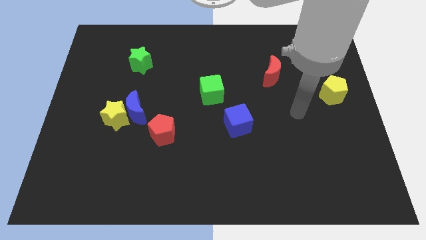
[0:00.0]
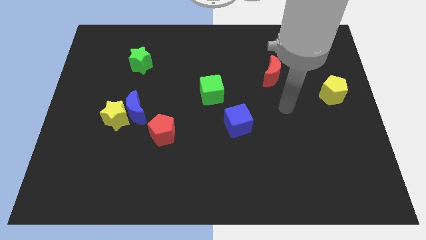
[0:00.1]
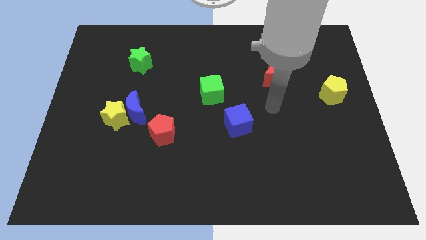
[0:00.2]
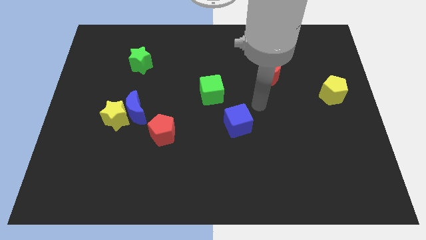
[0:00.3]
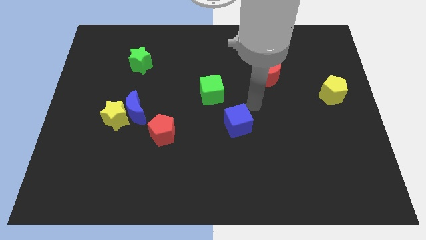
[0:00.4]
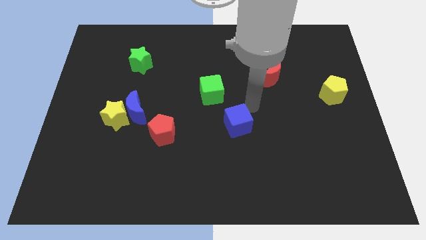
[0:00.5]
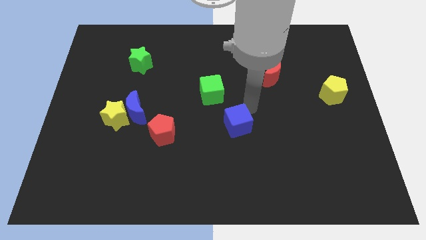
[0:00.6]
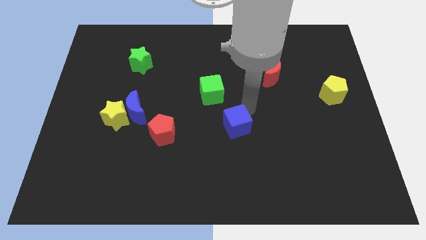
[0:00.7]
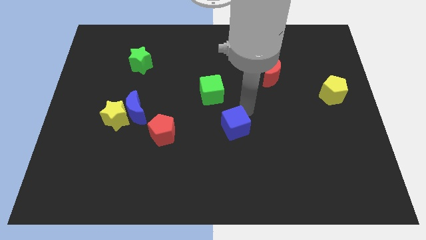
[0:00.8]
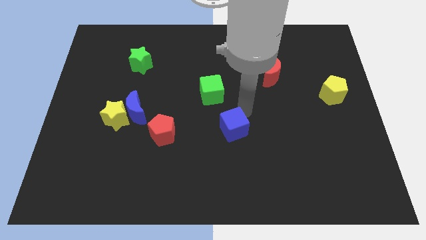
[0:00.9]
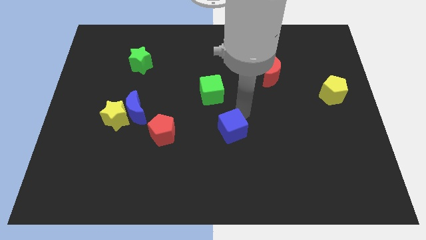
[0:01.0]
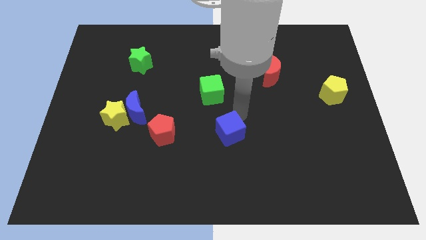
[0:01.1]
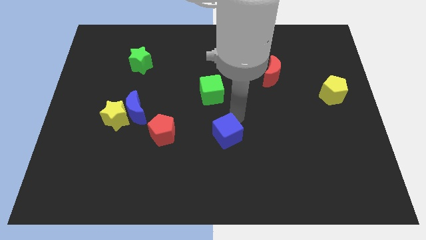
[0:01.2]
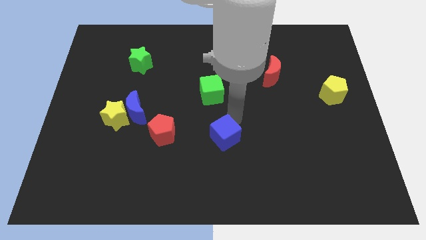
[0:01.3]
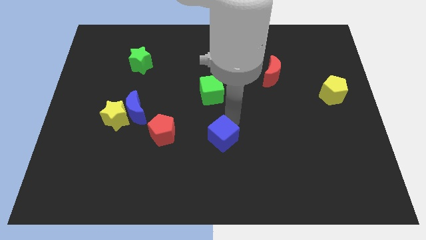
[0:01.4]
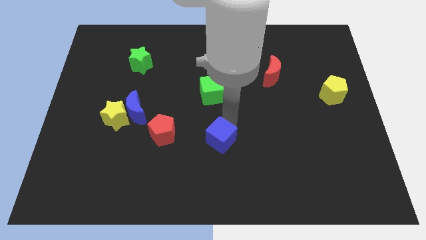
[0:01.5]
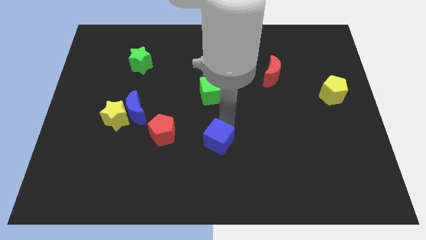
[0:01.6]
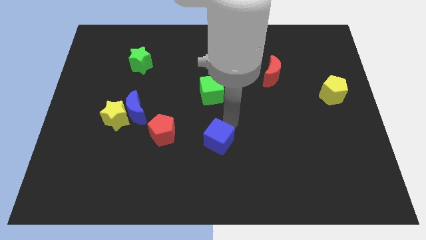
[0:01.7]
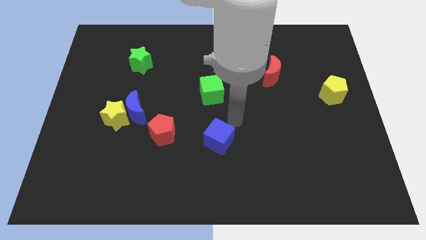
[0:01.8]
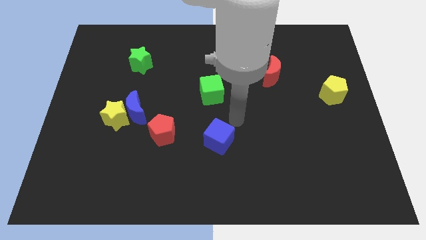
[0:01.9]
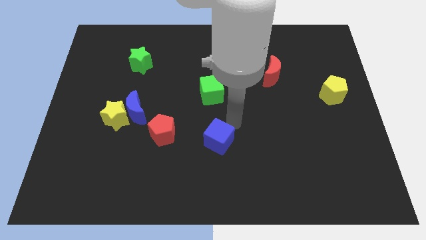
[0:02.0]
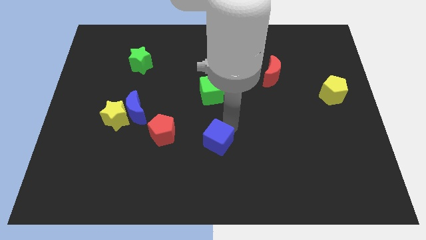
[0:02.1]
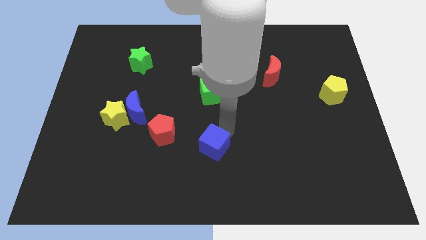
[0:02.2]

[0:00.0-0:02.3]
slightly push the blue cube diagonally down and to the left

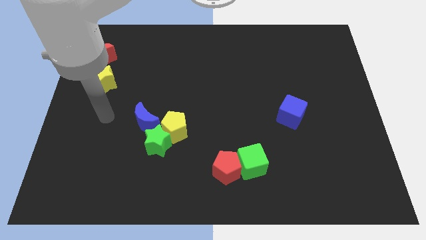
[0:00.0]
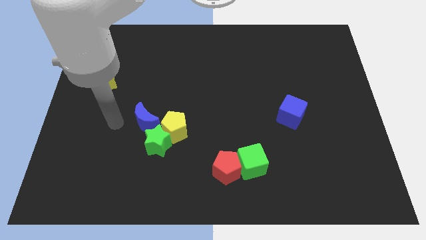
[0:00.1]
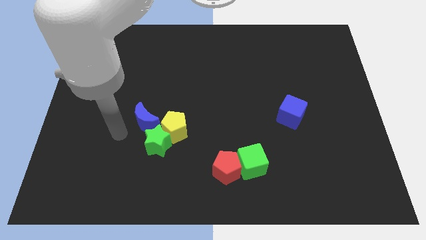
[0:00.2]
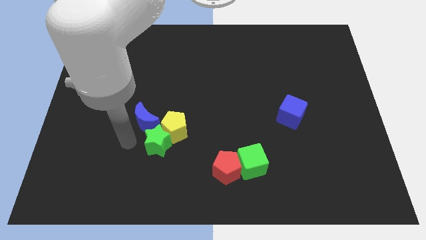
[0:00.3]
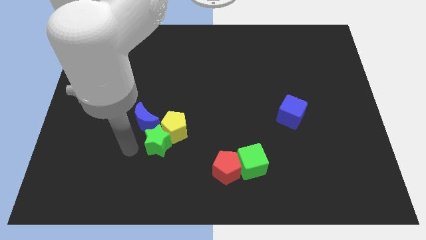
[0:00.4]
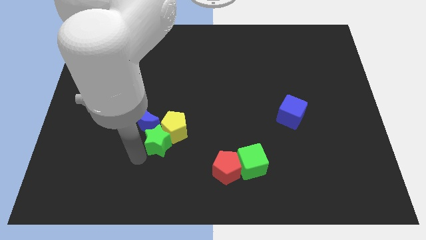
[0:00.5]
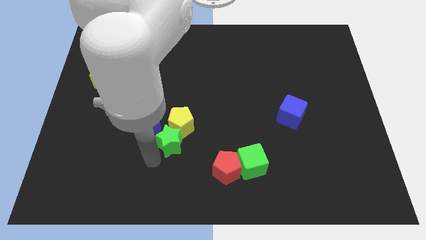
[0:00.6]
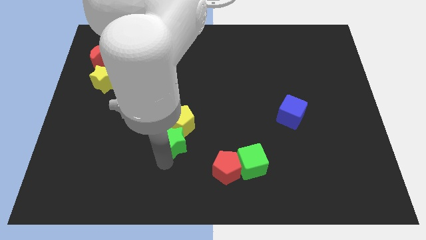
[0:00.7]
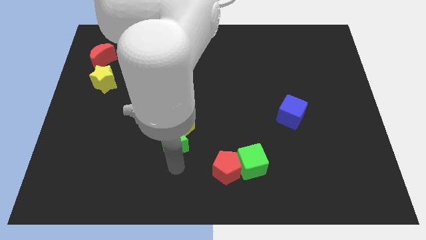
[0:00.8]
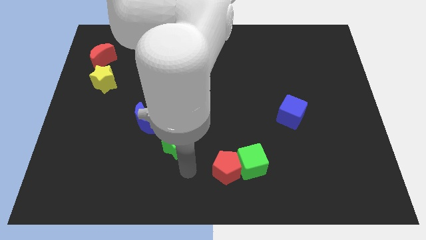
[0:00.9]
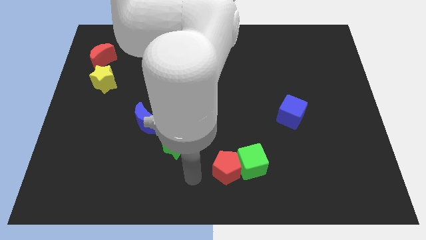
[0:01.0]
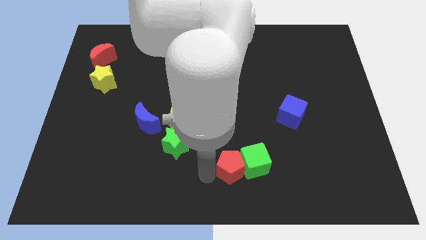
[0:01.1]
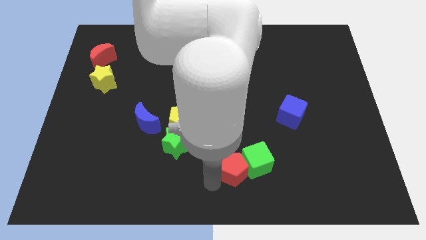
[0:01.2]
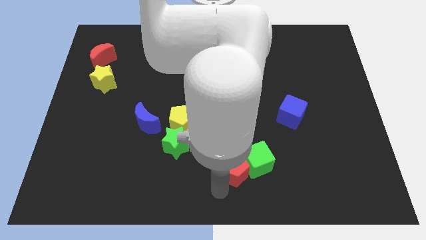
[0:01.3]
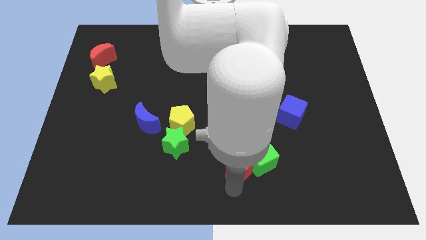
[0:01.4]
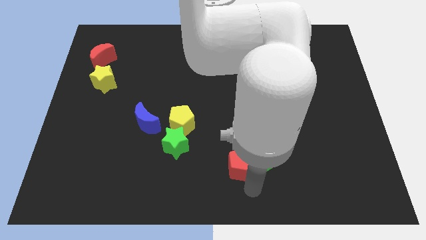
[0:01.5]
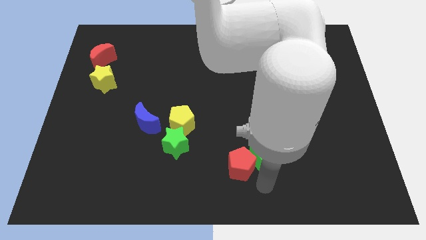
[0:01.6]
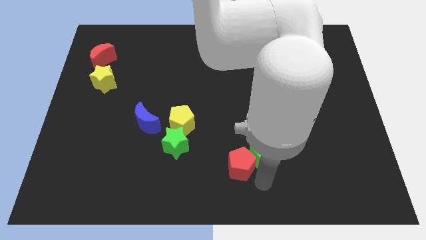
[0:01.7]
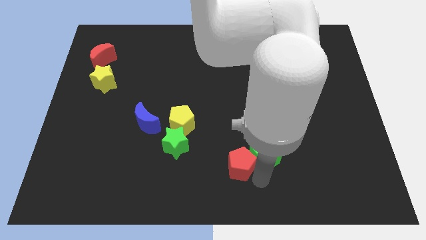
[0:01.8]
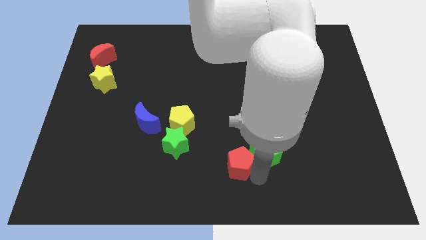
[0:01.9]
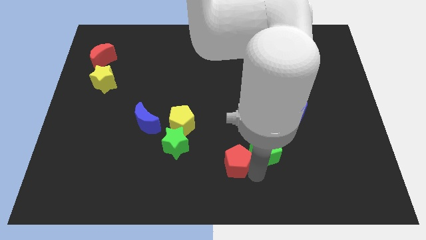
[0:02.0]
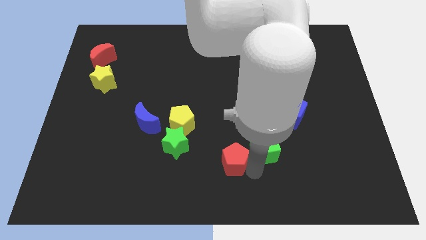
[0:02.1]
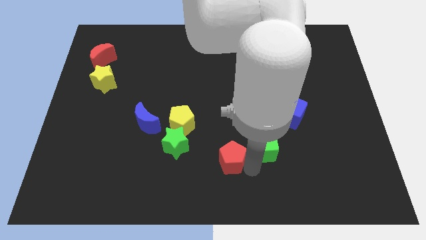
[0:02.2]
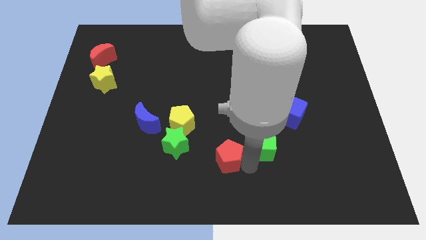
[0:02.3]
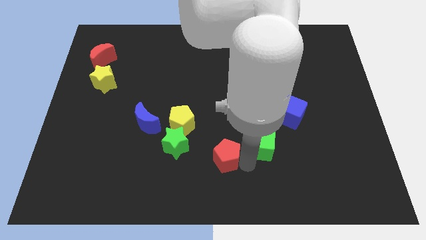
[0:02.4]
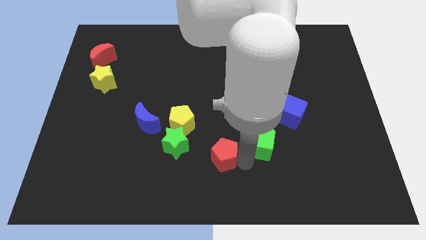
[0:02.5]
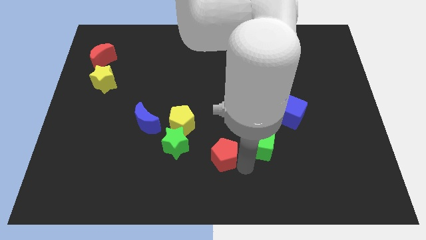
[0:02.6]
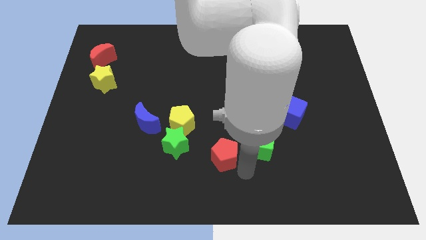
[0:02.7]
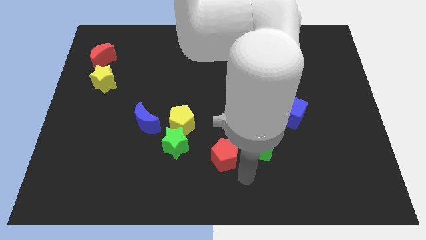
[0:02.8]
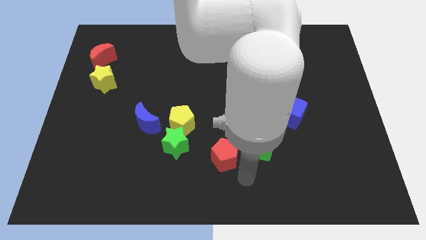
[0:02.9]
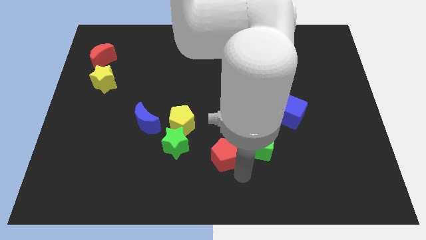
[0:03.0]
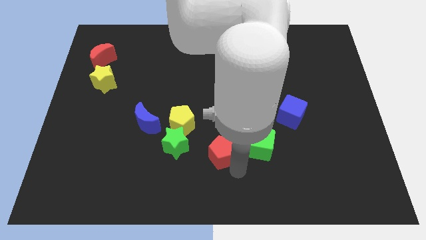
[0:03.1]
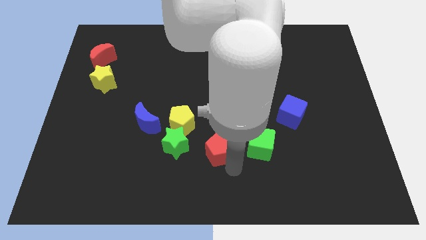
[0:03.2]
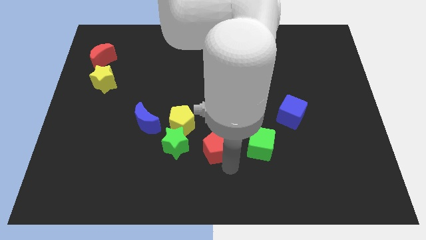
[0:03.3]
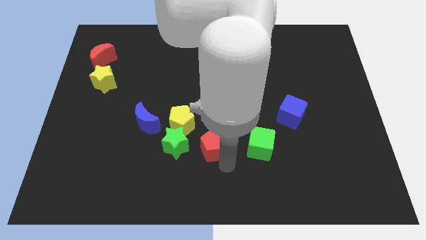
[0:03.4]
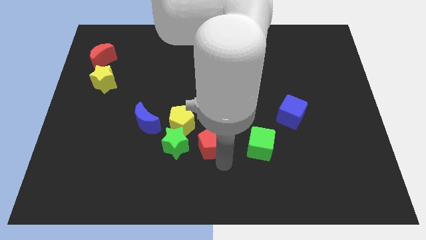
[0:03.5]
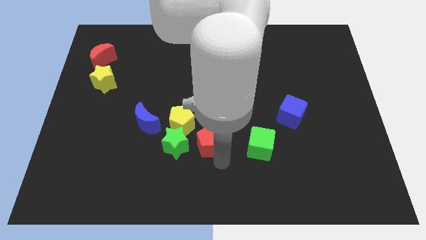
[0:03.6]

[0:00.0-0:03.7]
move the red pentagon a little diagonally upwards and to the left

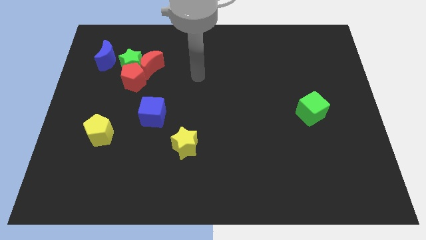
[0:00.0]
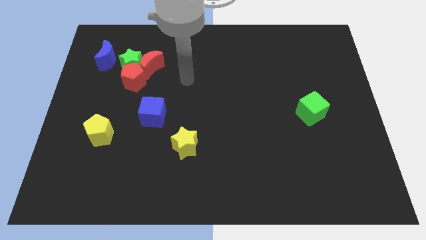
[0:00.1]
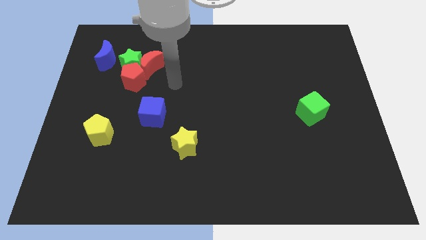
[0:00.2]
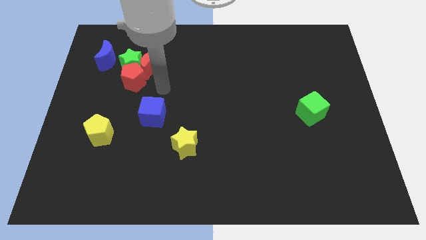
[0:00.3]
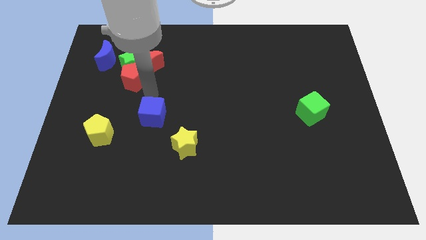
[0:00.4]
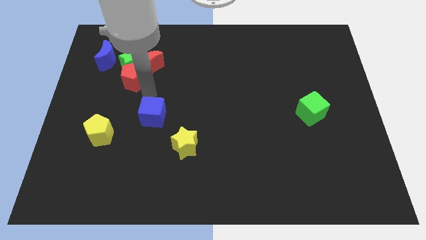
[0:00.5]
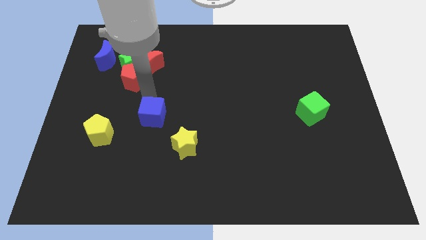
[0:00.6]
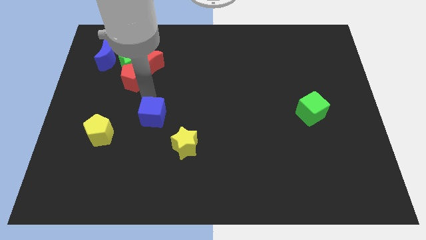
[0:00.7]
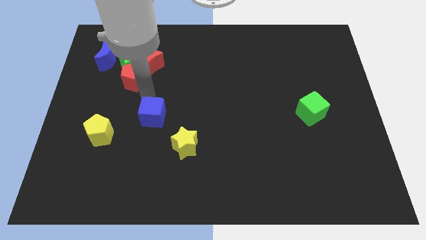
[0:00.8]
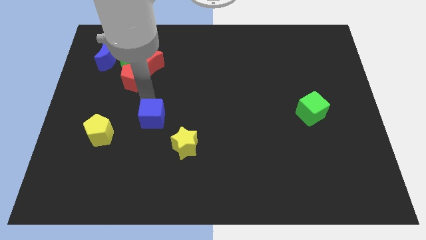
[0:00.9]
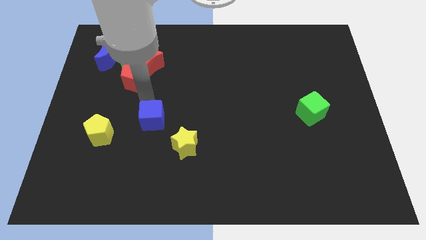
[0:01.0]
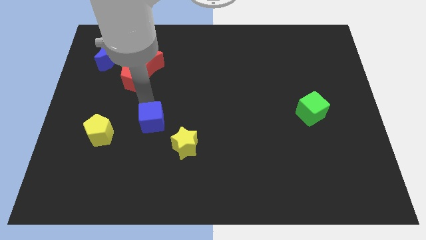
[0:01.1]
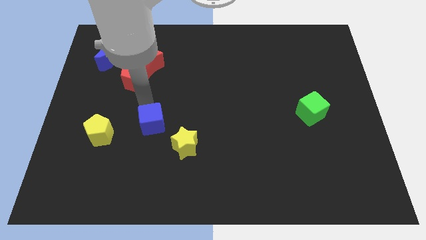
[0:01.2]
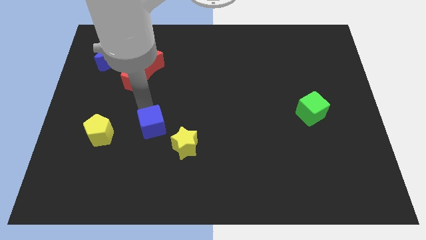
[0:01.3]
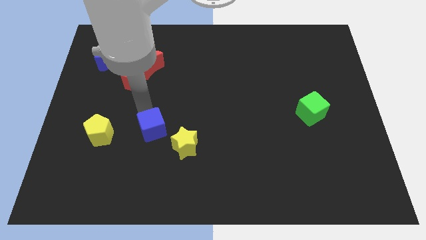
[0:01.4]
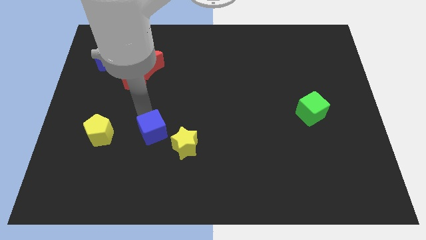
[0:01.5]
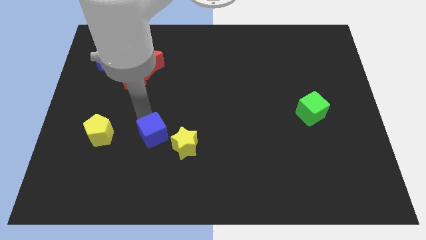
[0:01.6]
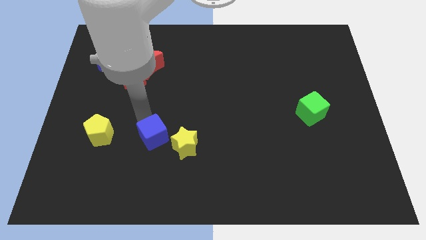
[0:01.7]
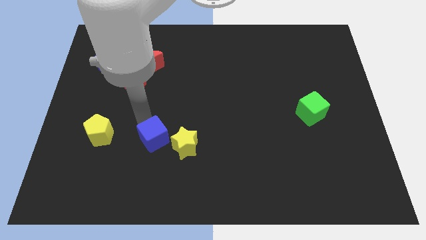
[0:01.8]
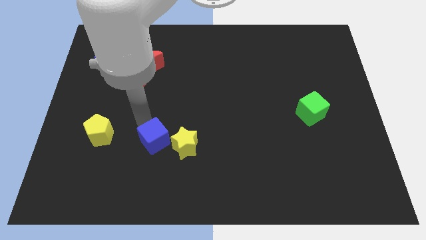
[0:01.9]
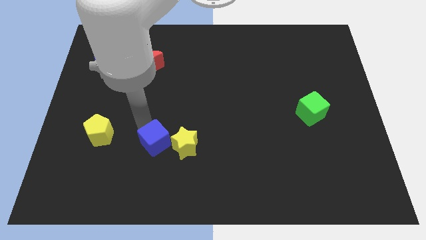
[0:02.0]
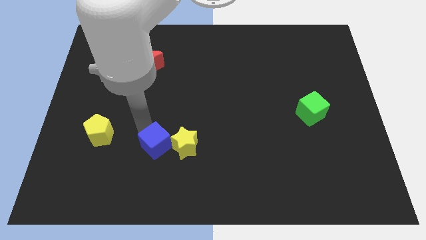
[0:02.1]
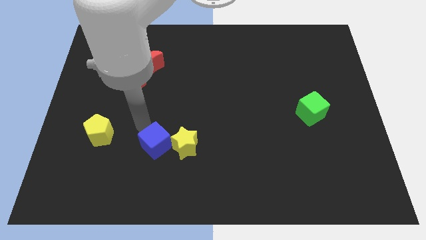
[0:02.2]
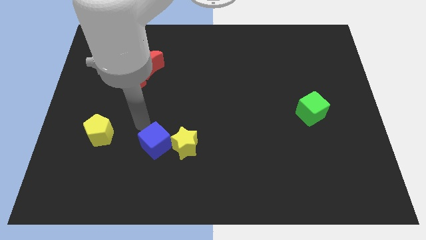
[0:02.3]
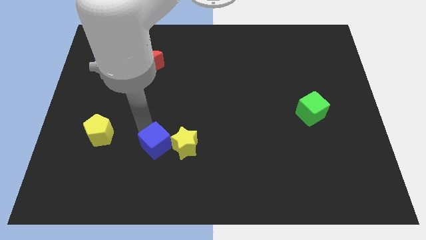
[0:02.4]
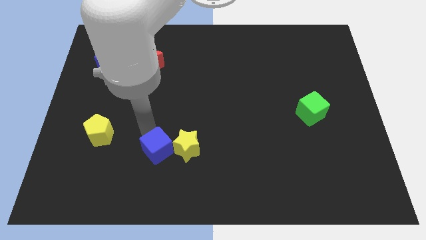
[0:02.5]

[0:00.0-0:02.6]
slide the blue cube somewhat down and then to the right
